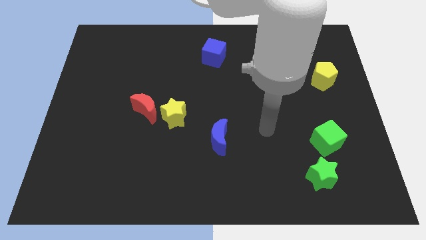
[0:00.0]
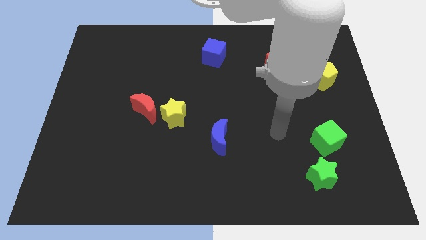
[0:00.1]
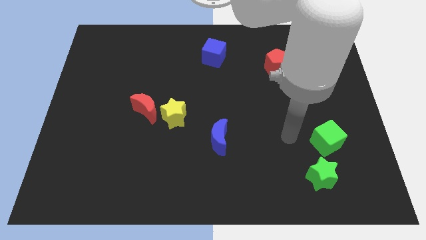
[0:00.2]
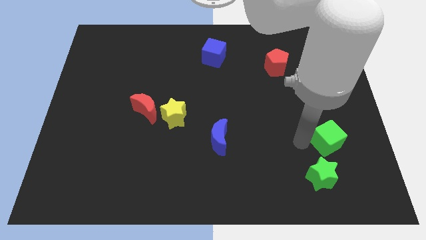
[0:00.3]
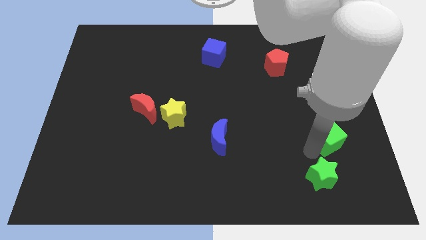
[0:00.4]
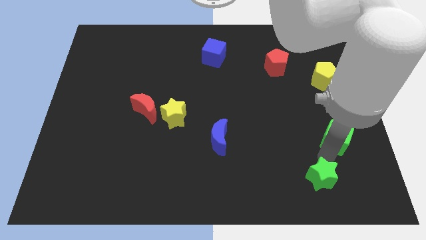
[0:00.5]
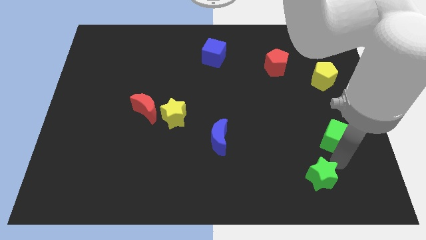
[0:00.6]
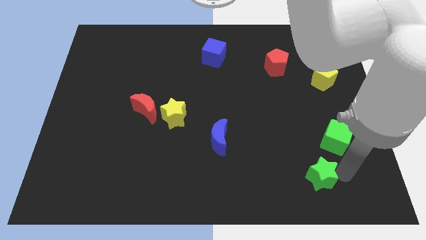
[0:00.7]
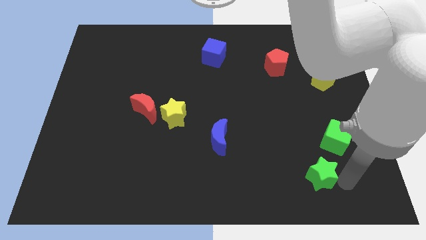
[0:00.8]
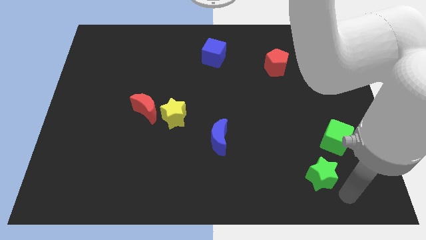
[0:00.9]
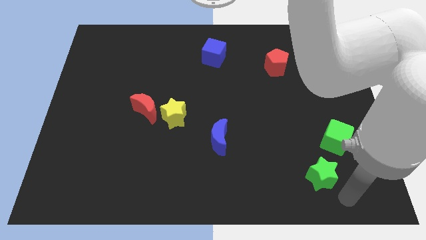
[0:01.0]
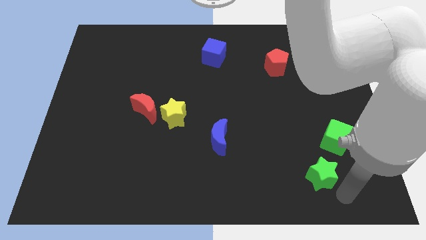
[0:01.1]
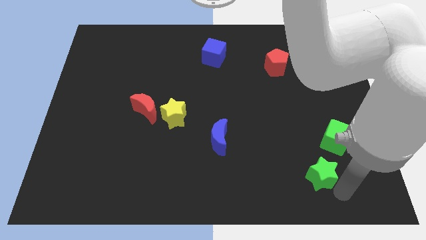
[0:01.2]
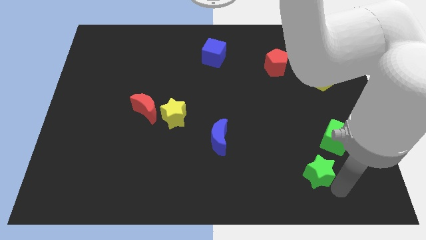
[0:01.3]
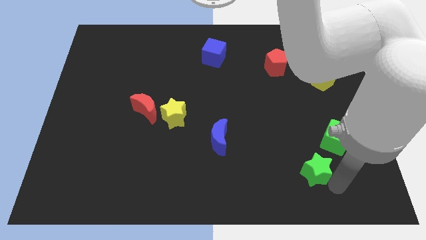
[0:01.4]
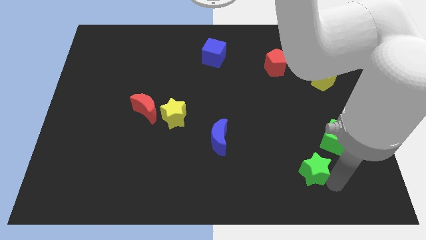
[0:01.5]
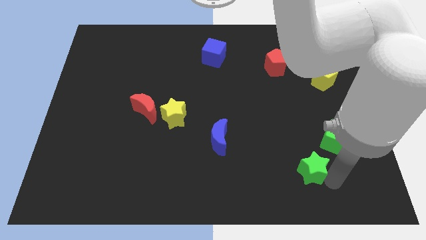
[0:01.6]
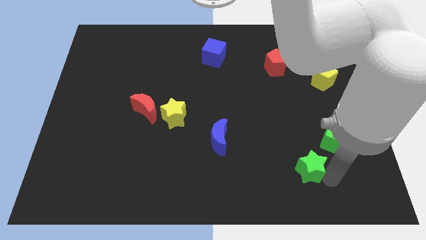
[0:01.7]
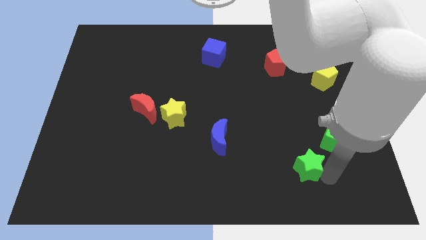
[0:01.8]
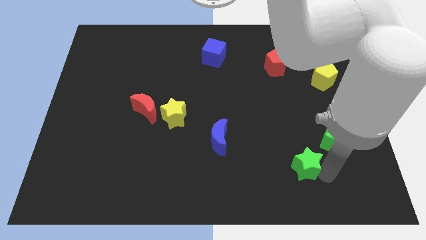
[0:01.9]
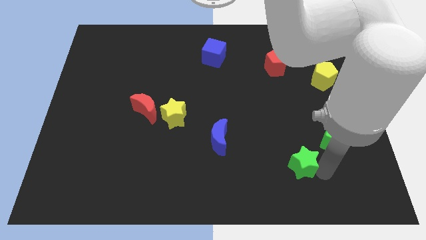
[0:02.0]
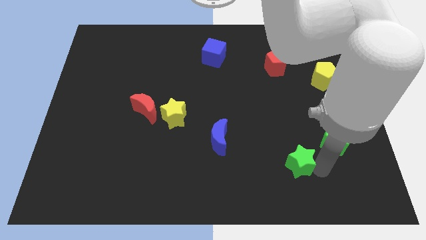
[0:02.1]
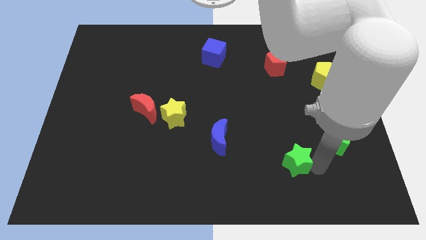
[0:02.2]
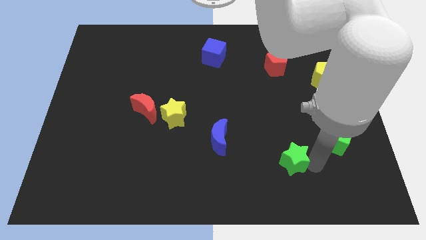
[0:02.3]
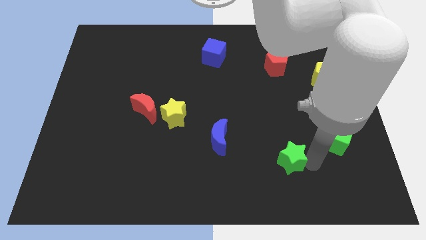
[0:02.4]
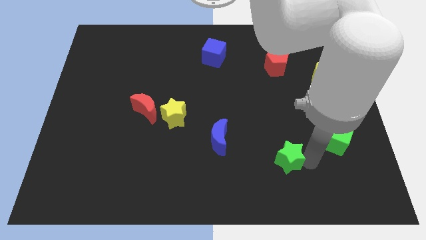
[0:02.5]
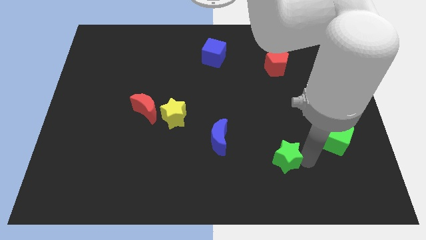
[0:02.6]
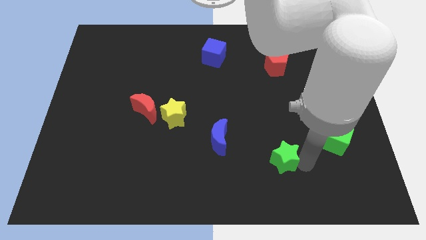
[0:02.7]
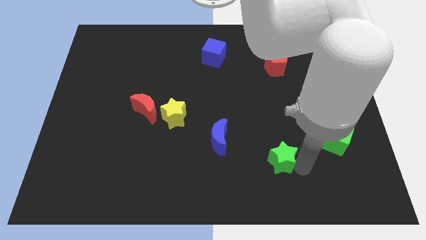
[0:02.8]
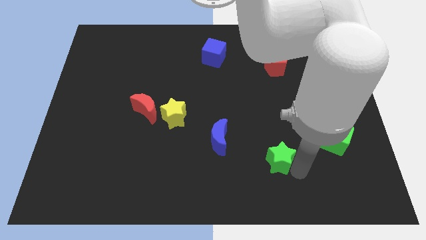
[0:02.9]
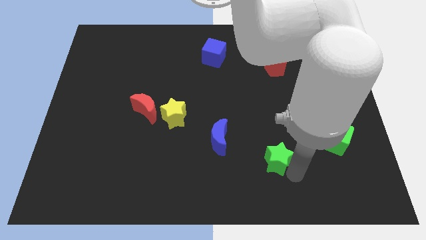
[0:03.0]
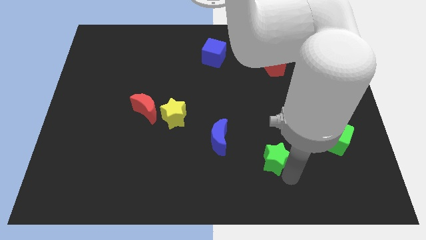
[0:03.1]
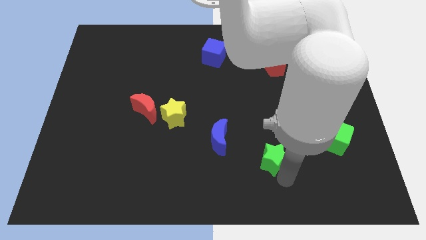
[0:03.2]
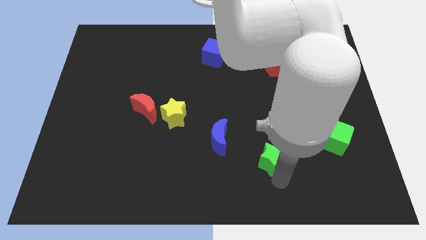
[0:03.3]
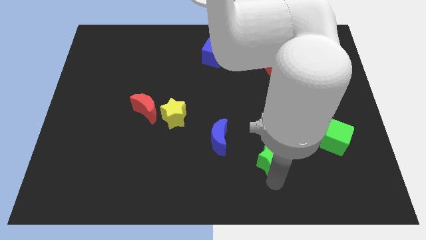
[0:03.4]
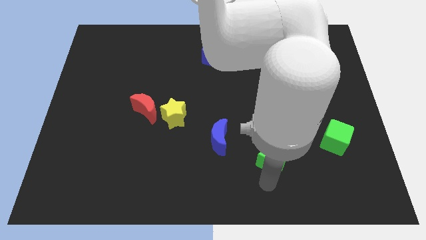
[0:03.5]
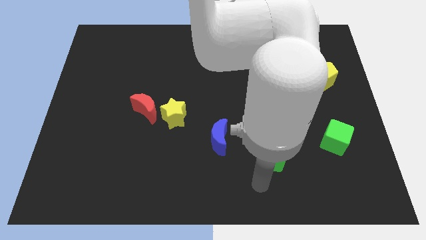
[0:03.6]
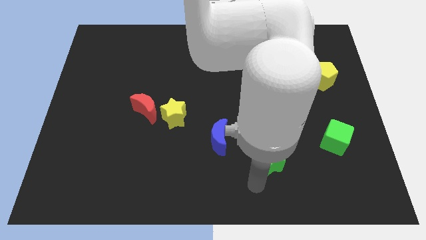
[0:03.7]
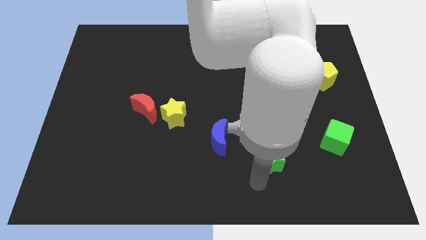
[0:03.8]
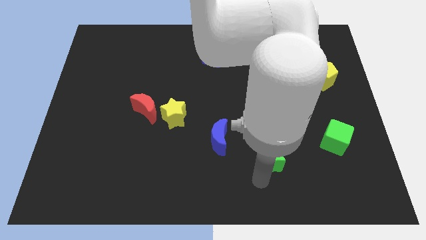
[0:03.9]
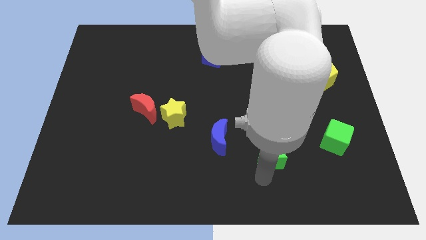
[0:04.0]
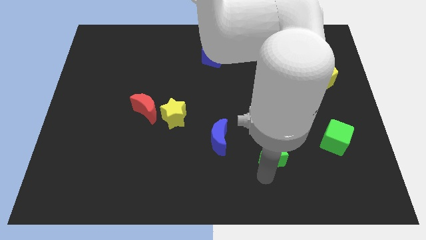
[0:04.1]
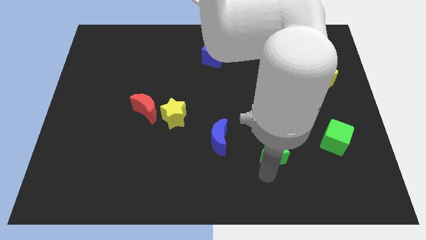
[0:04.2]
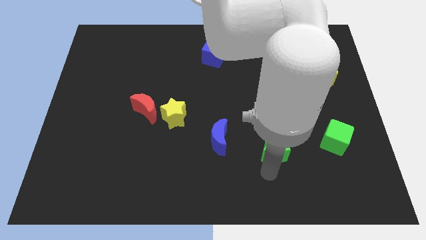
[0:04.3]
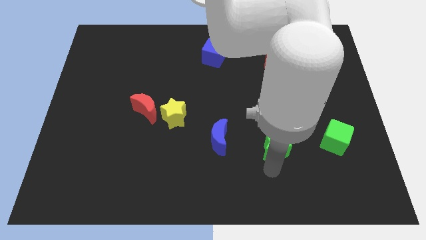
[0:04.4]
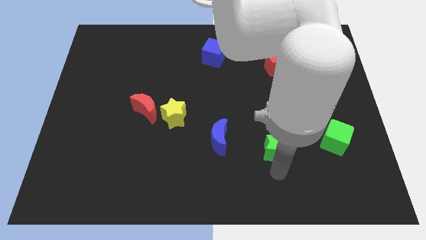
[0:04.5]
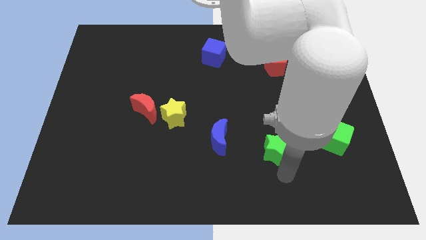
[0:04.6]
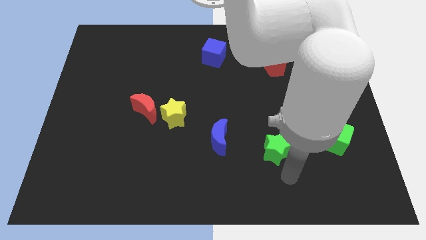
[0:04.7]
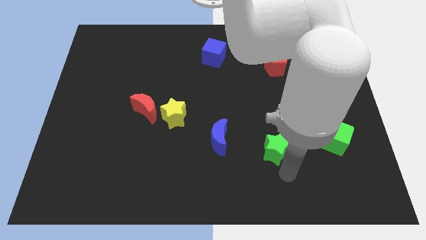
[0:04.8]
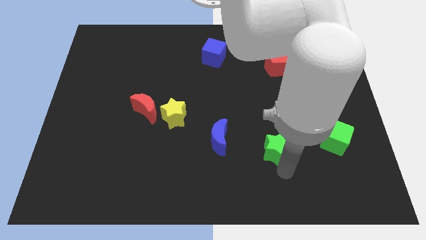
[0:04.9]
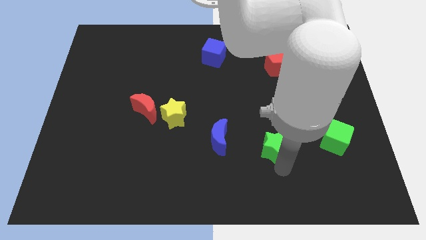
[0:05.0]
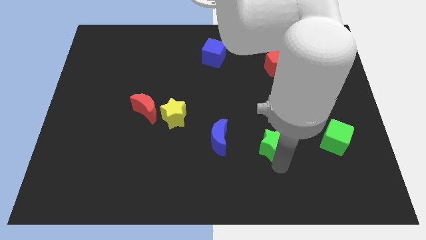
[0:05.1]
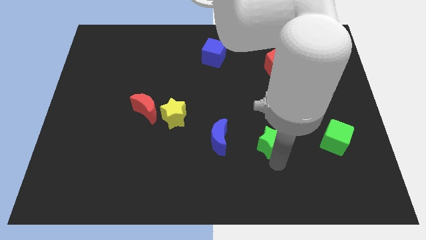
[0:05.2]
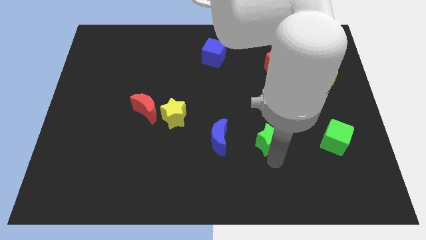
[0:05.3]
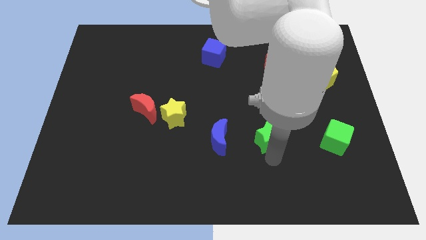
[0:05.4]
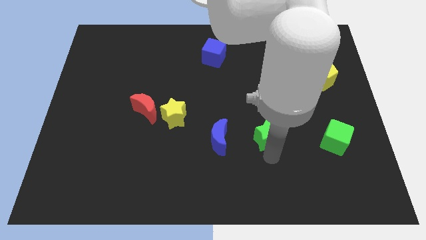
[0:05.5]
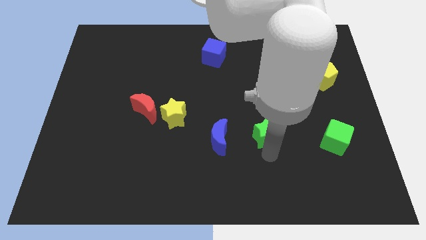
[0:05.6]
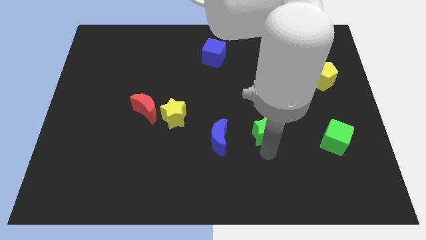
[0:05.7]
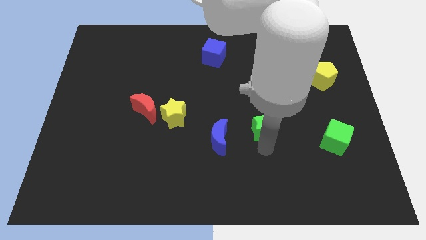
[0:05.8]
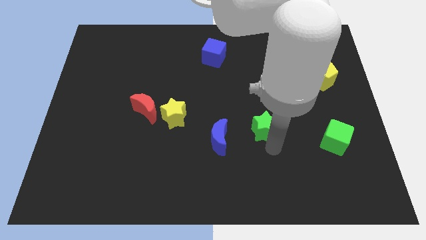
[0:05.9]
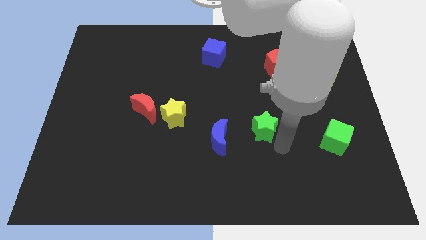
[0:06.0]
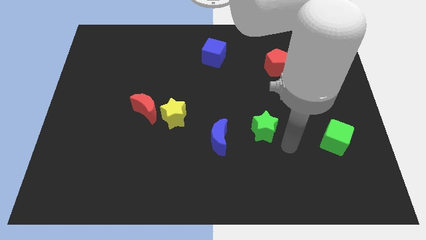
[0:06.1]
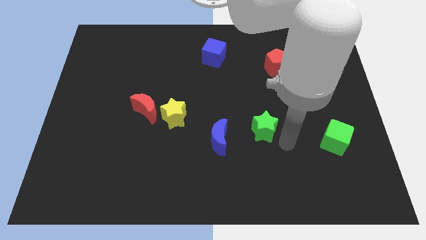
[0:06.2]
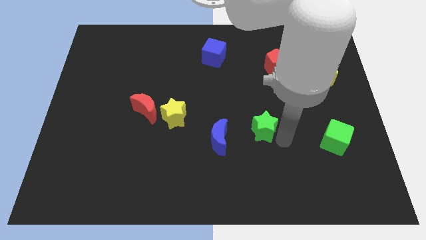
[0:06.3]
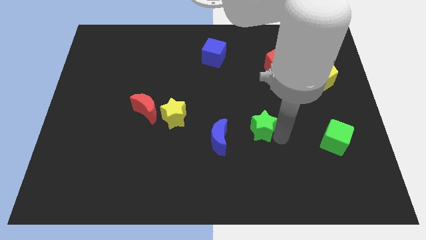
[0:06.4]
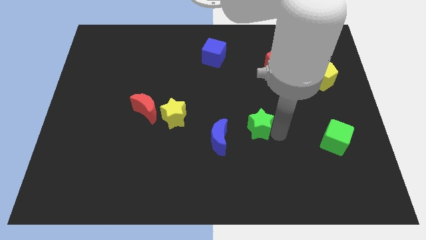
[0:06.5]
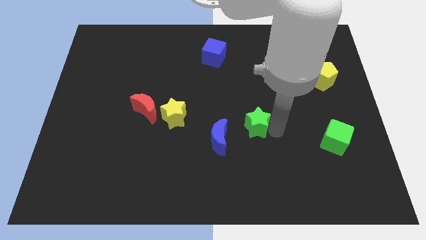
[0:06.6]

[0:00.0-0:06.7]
put the green star to the middle

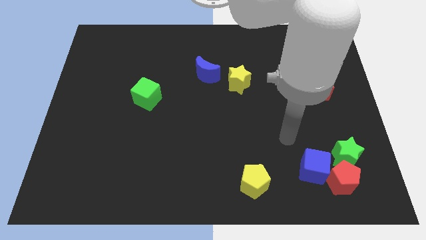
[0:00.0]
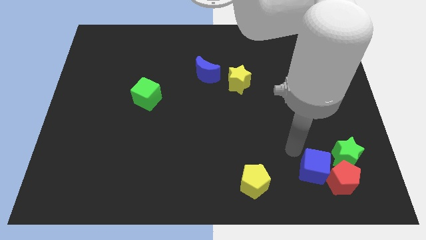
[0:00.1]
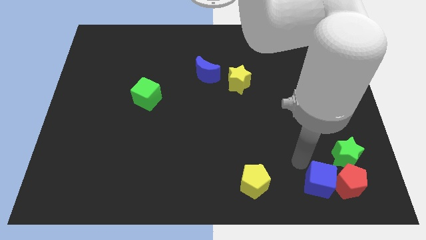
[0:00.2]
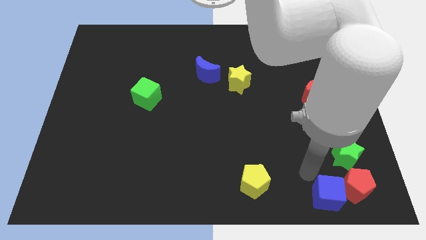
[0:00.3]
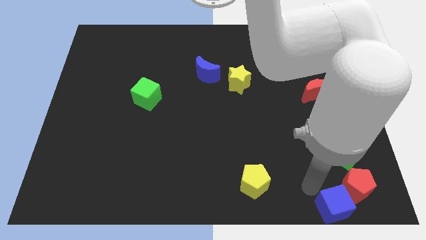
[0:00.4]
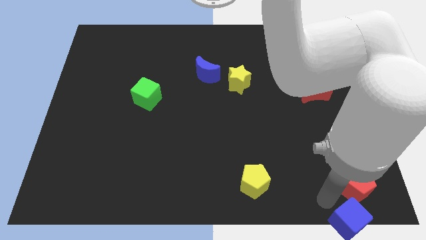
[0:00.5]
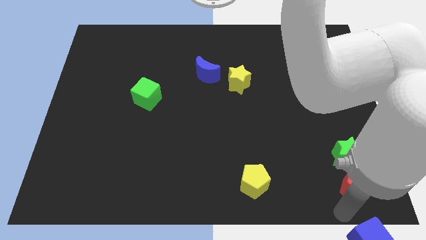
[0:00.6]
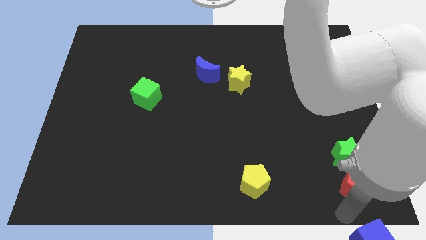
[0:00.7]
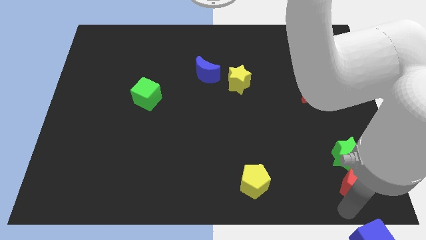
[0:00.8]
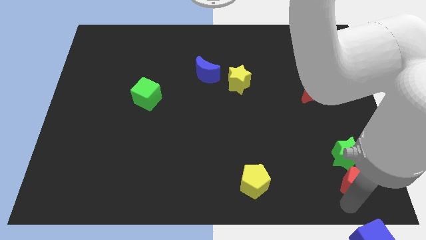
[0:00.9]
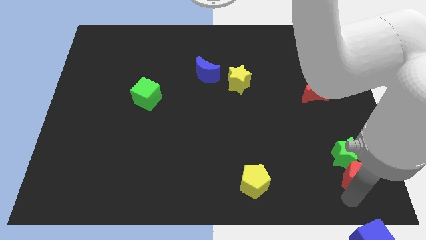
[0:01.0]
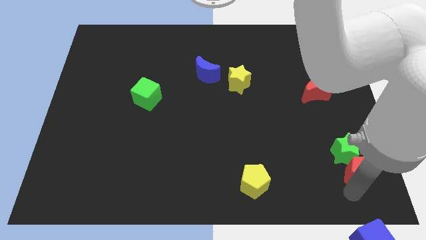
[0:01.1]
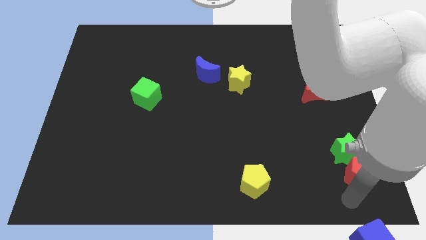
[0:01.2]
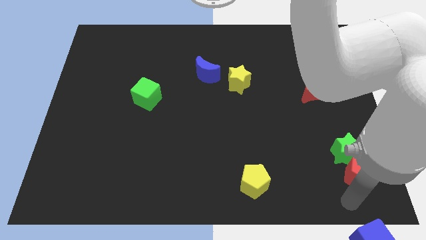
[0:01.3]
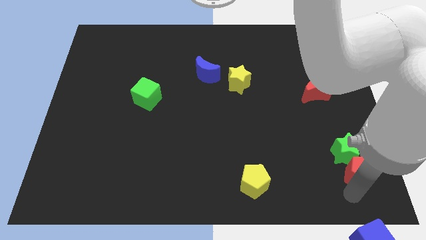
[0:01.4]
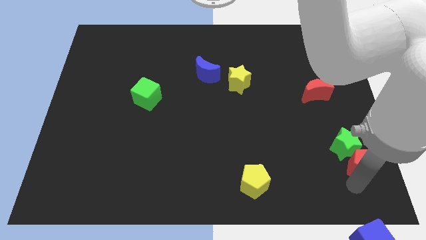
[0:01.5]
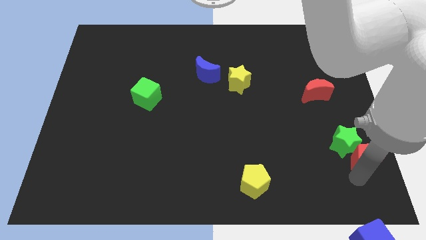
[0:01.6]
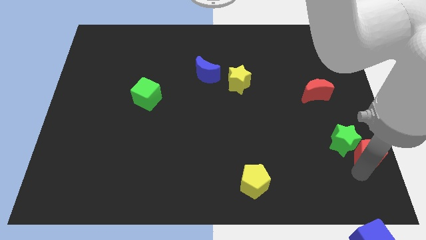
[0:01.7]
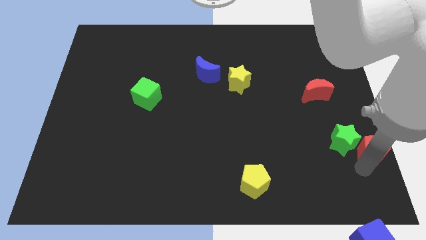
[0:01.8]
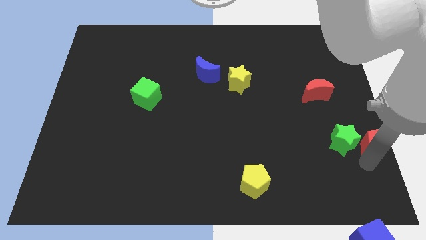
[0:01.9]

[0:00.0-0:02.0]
push the red pentagon to the right side
